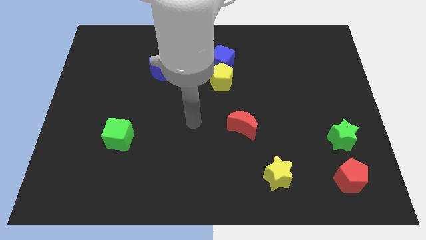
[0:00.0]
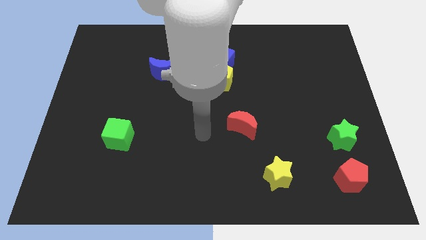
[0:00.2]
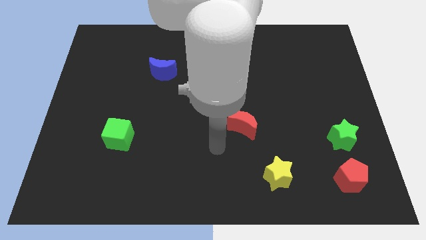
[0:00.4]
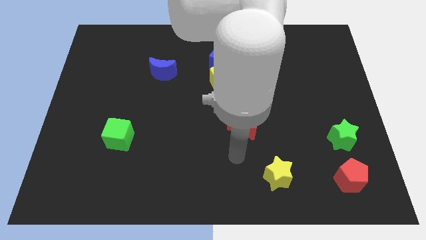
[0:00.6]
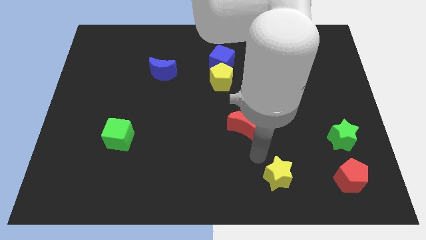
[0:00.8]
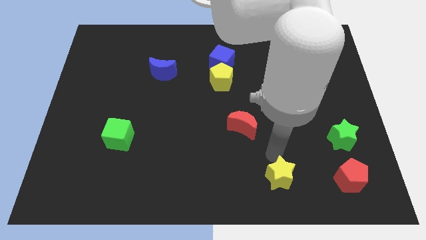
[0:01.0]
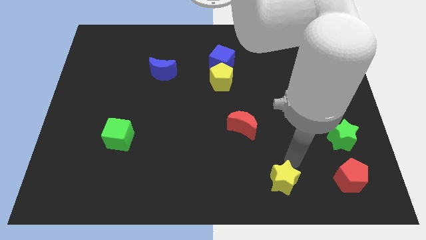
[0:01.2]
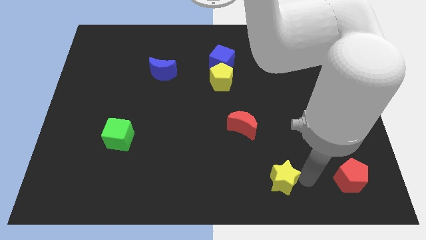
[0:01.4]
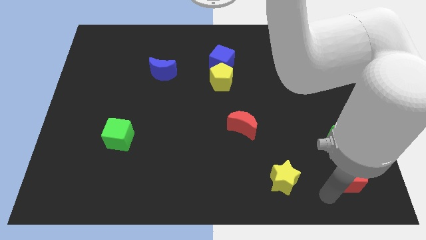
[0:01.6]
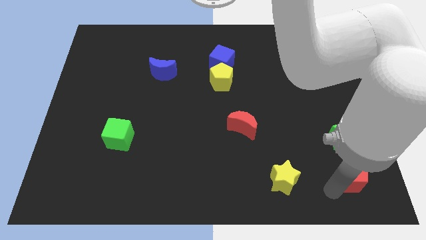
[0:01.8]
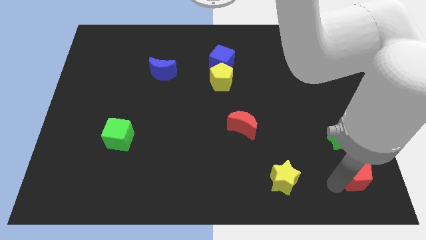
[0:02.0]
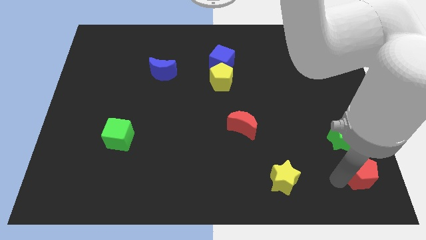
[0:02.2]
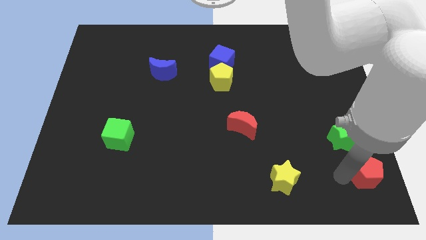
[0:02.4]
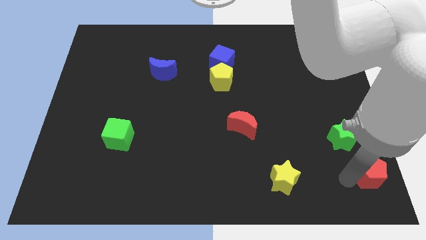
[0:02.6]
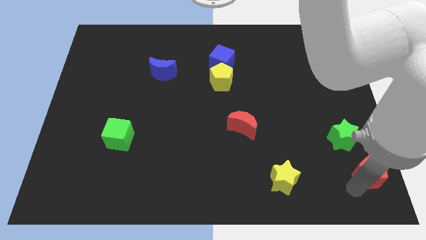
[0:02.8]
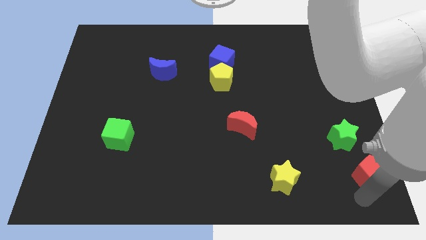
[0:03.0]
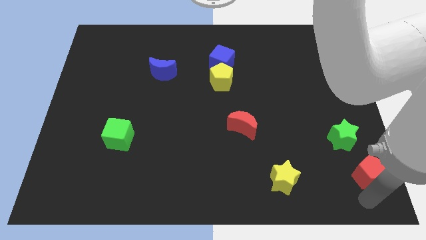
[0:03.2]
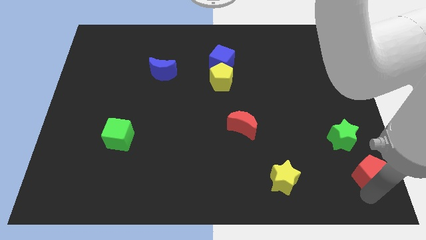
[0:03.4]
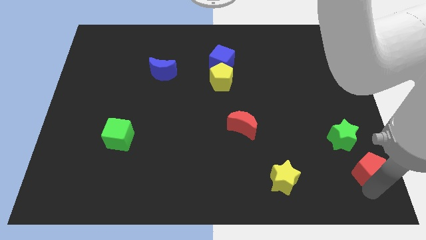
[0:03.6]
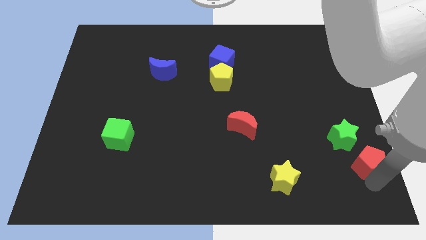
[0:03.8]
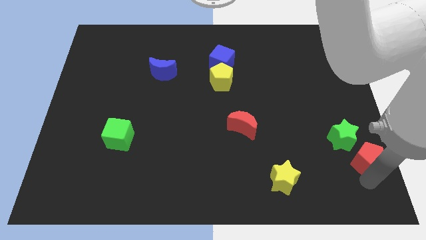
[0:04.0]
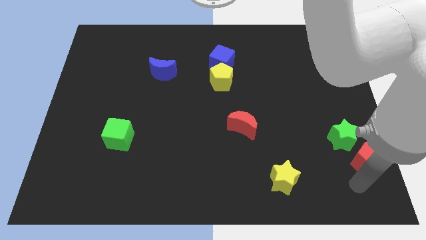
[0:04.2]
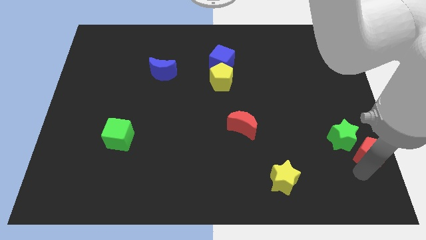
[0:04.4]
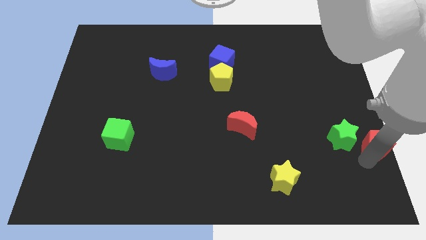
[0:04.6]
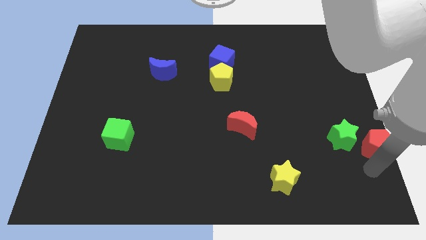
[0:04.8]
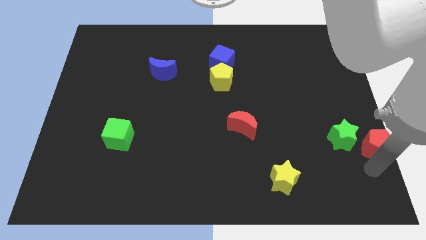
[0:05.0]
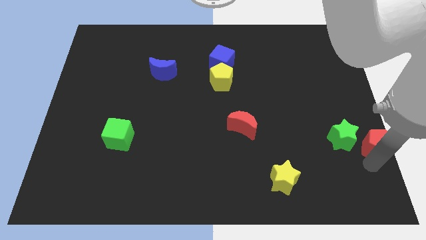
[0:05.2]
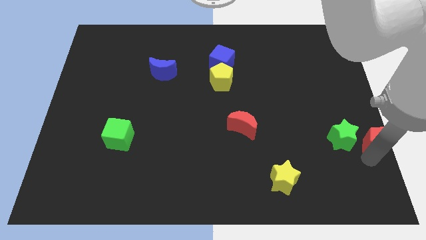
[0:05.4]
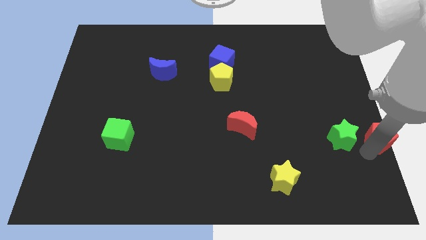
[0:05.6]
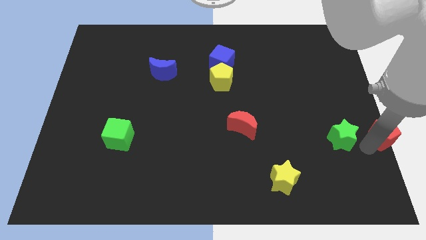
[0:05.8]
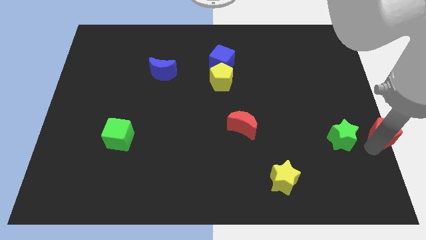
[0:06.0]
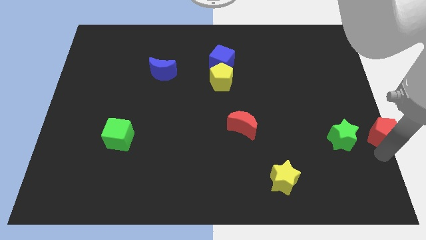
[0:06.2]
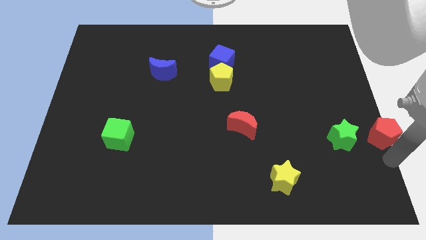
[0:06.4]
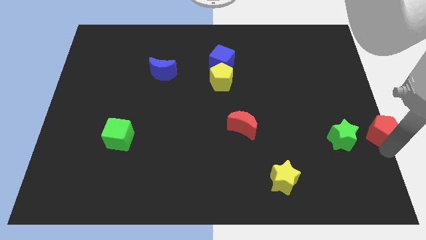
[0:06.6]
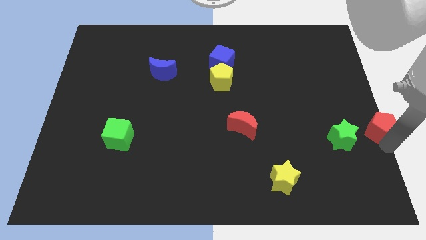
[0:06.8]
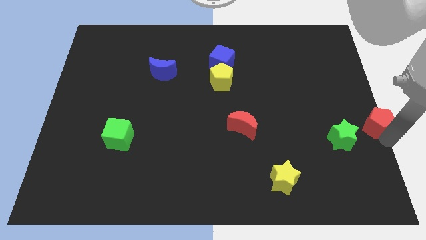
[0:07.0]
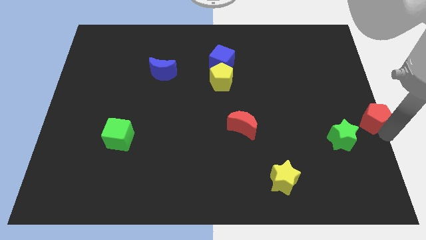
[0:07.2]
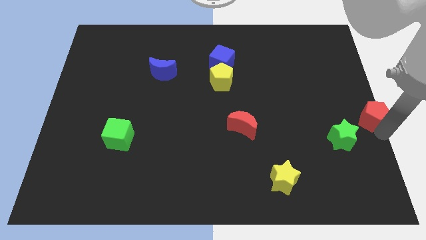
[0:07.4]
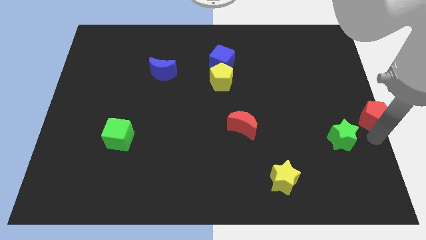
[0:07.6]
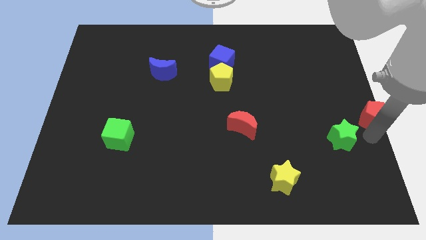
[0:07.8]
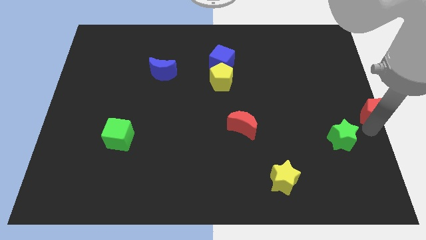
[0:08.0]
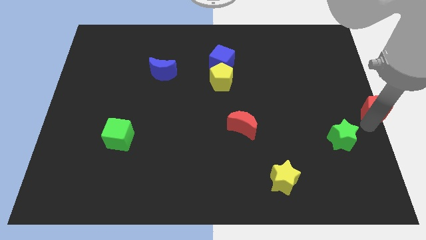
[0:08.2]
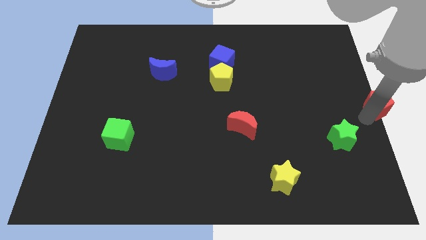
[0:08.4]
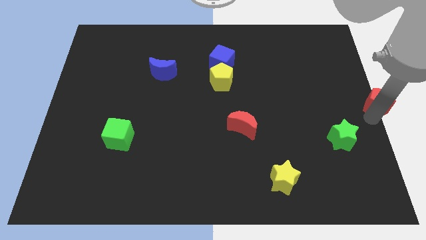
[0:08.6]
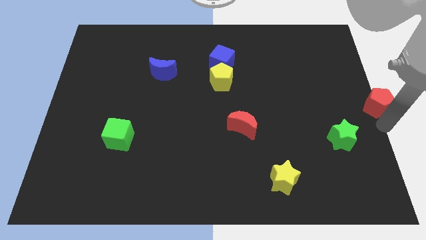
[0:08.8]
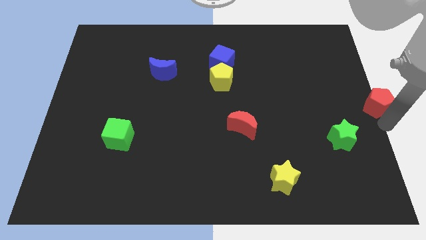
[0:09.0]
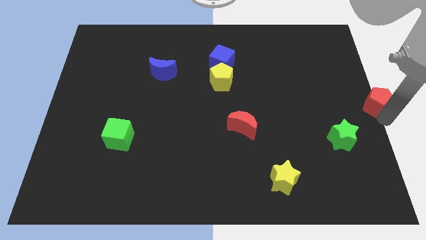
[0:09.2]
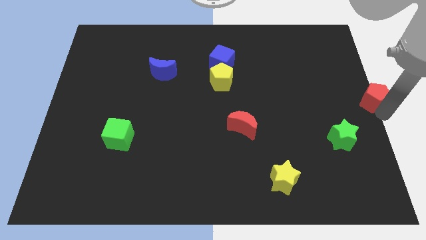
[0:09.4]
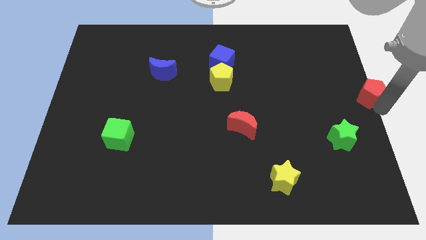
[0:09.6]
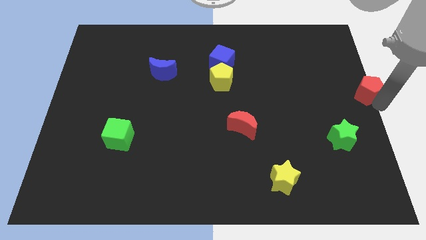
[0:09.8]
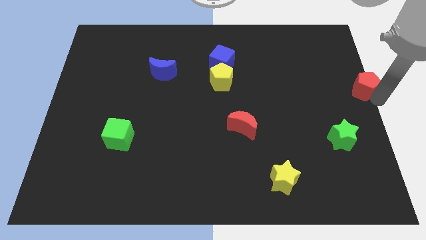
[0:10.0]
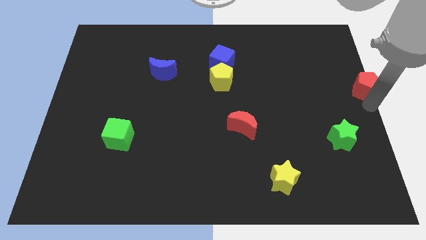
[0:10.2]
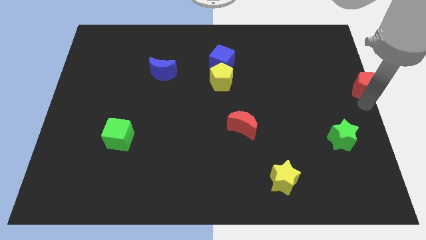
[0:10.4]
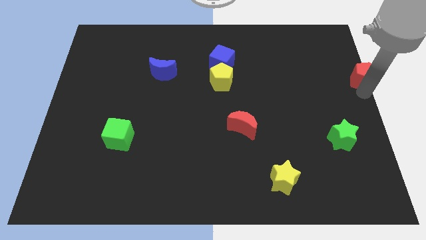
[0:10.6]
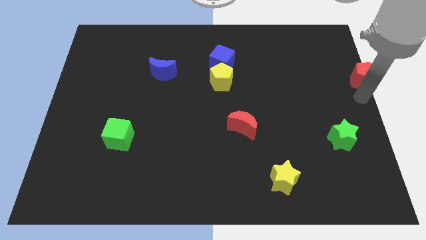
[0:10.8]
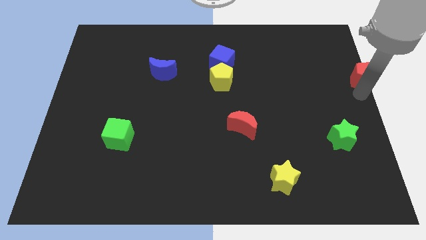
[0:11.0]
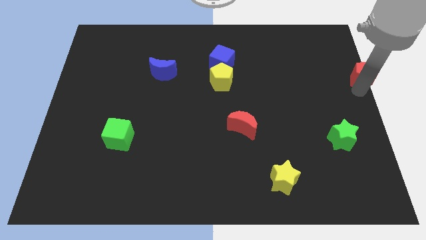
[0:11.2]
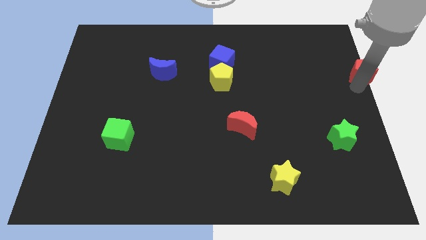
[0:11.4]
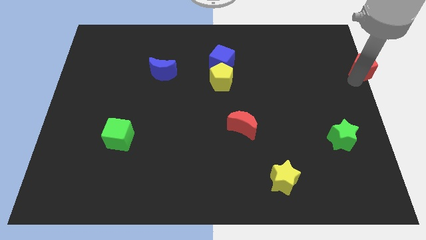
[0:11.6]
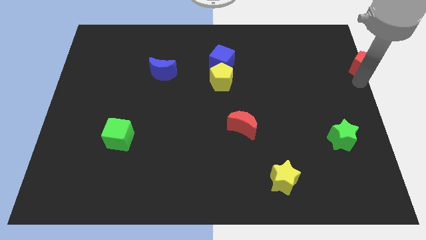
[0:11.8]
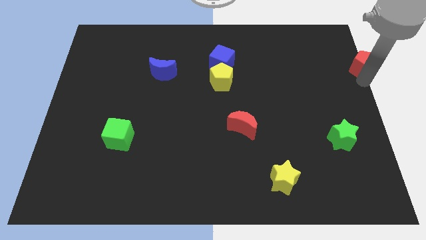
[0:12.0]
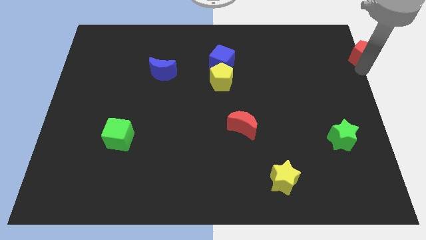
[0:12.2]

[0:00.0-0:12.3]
slide the red pentagon to the top right of the board
